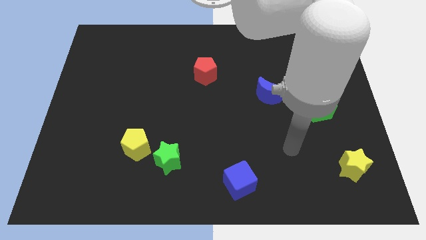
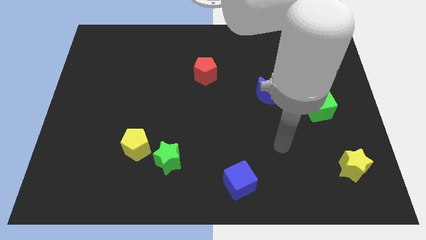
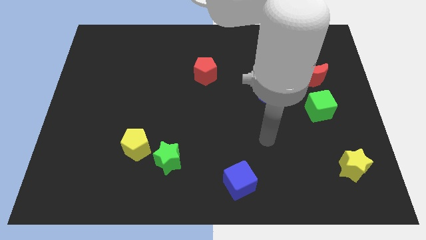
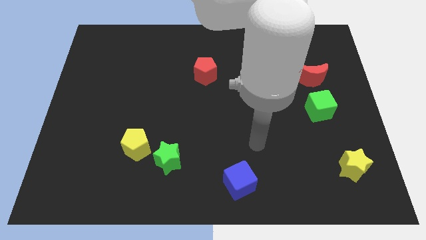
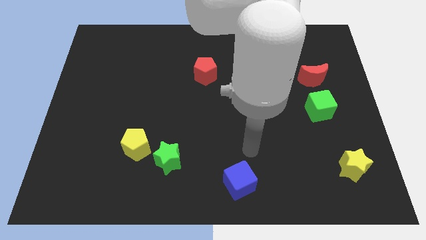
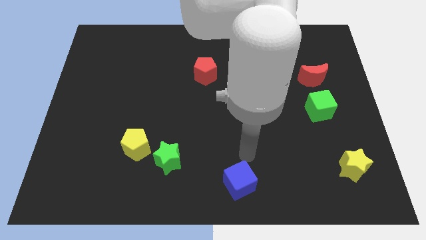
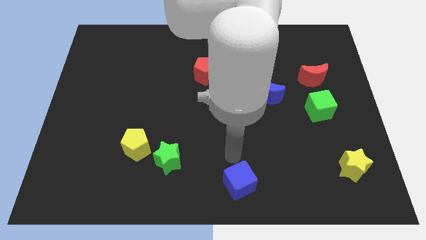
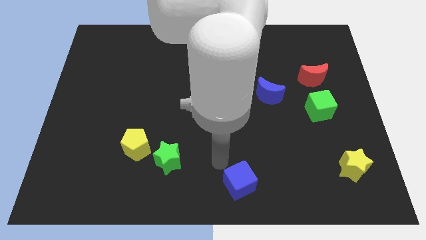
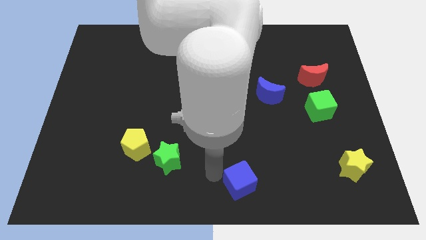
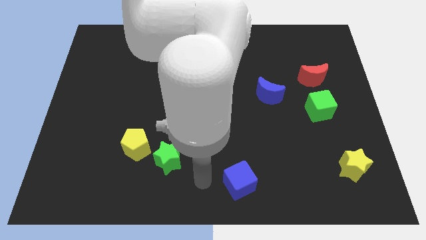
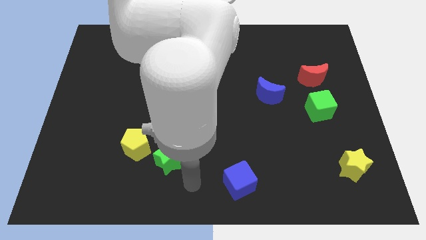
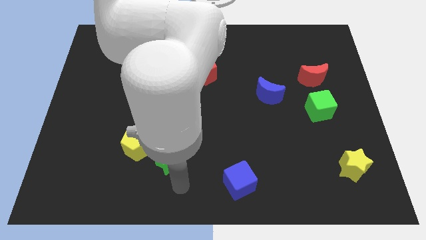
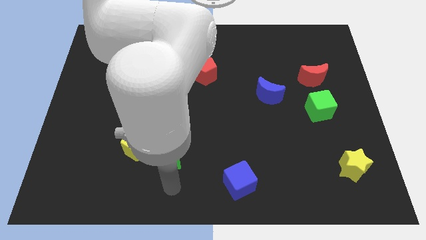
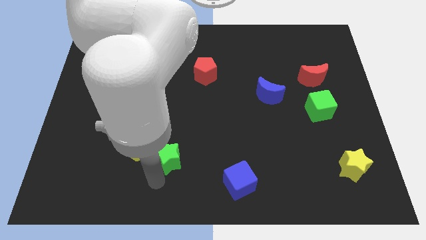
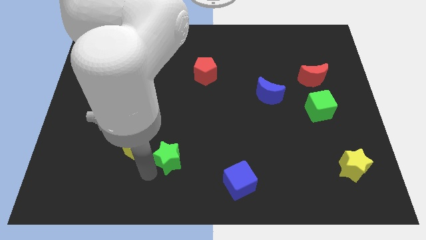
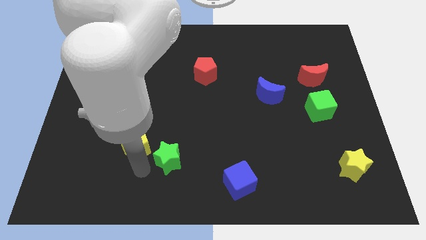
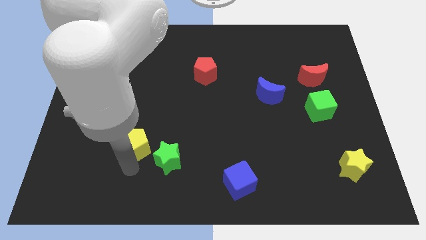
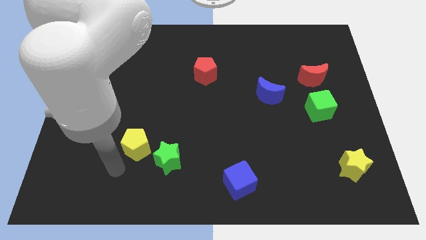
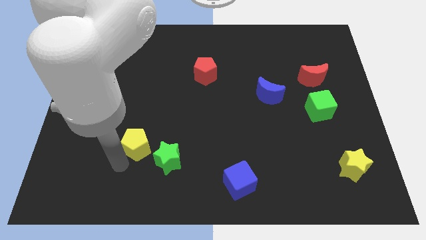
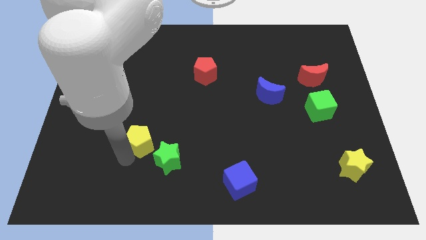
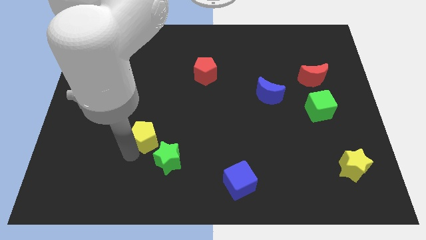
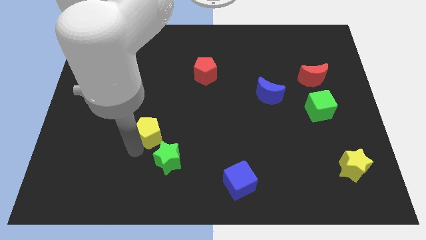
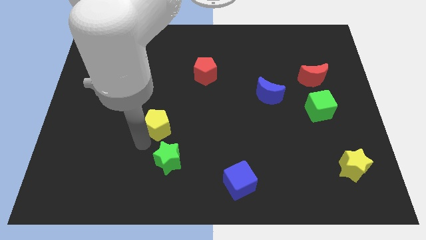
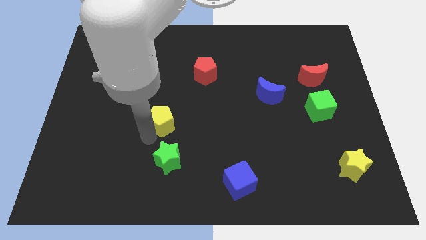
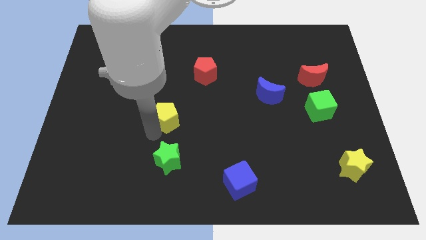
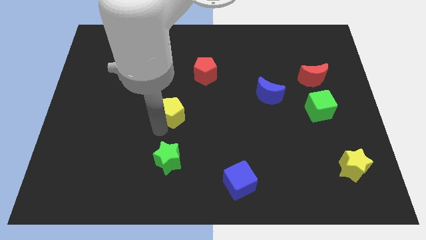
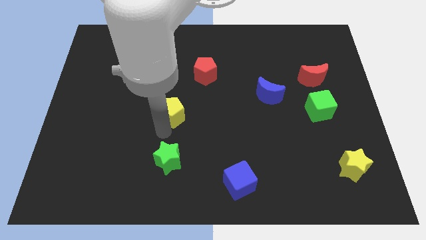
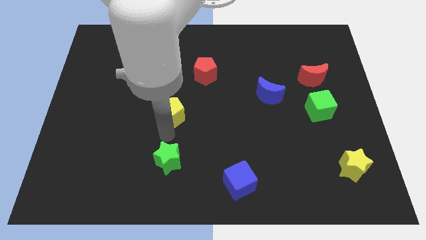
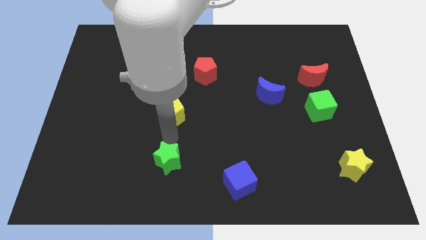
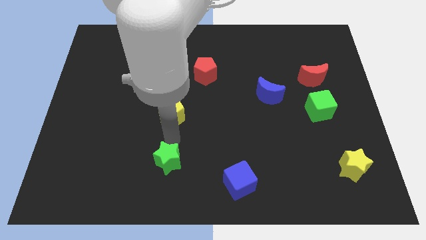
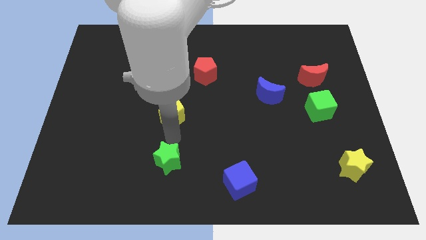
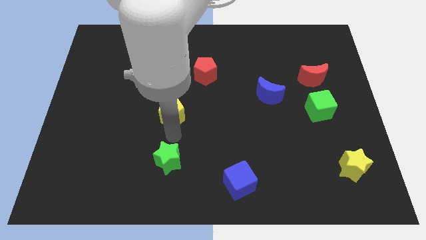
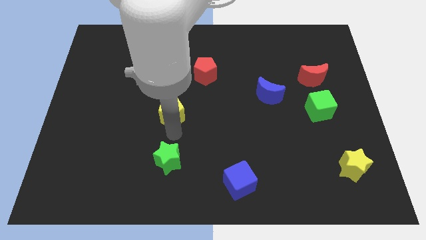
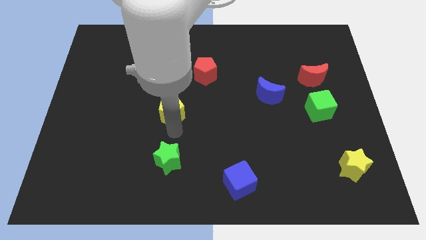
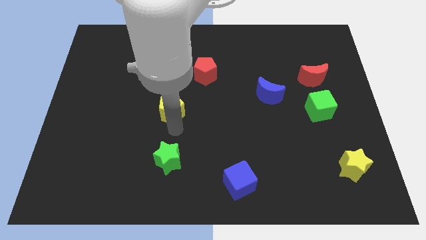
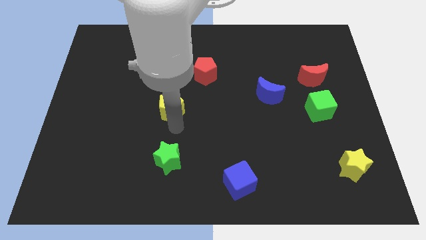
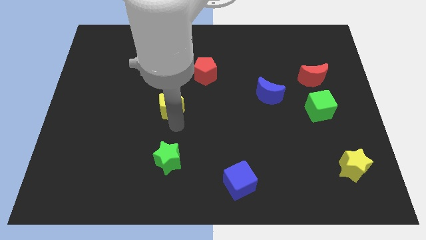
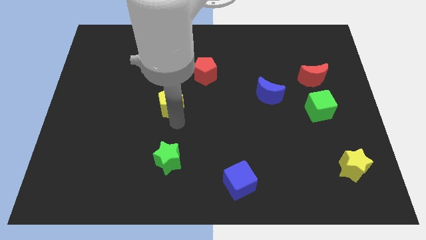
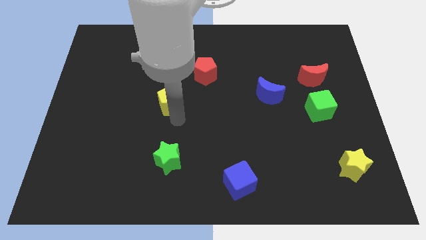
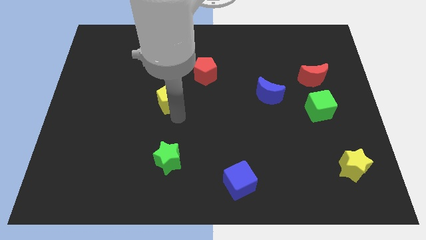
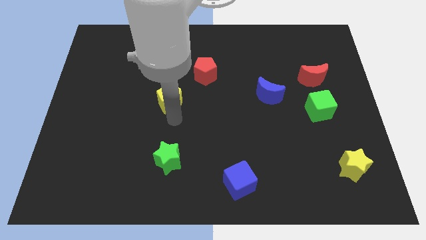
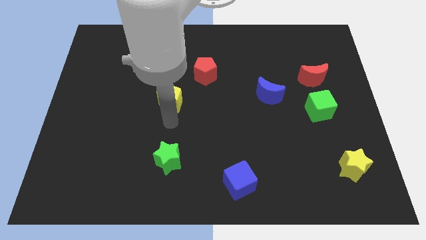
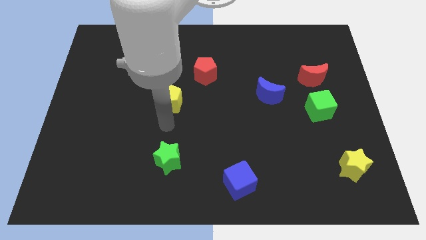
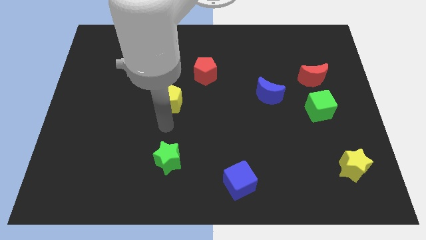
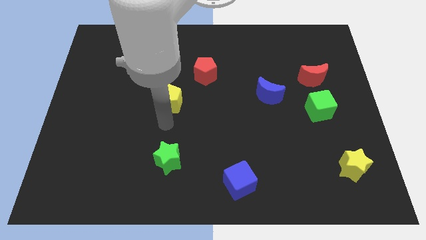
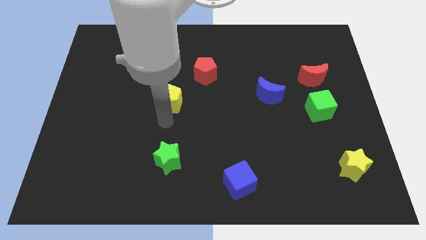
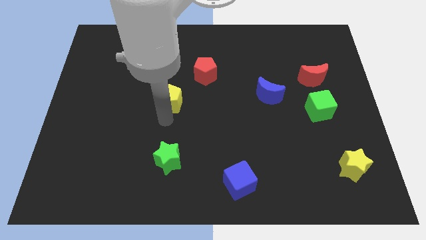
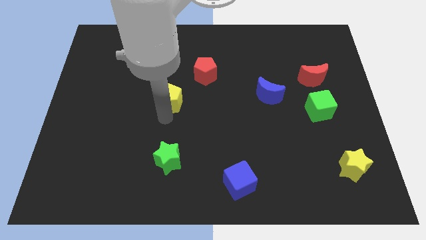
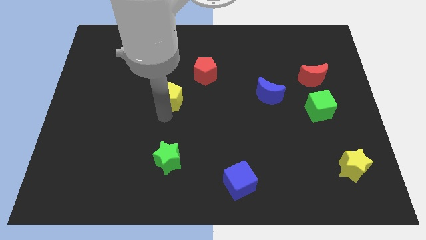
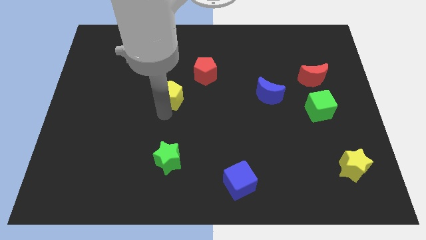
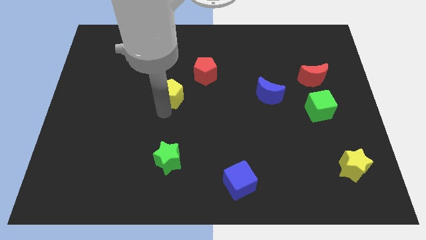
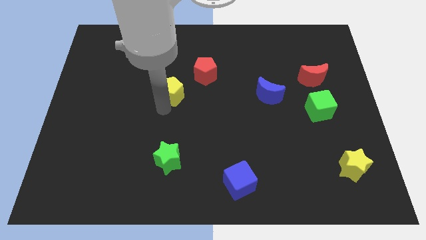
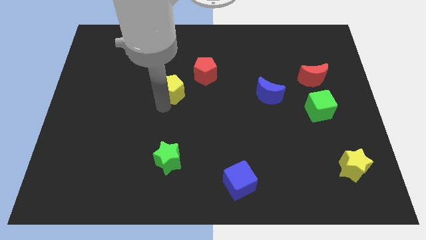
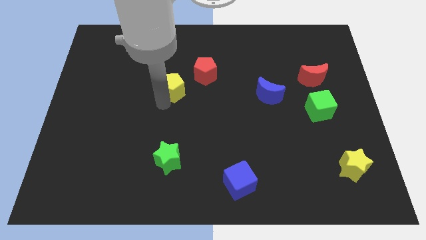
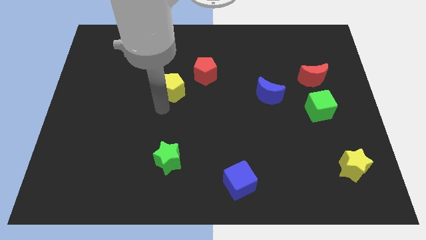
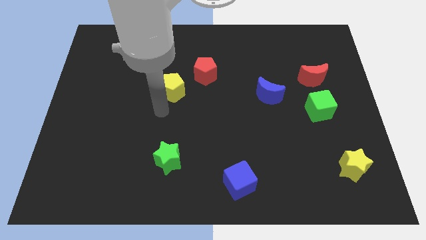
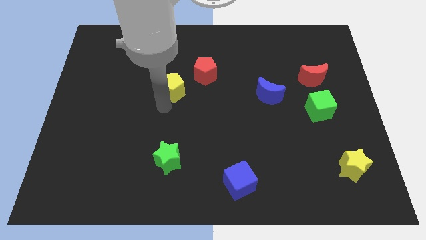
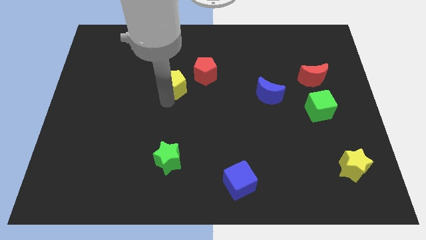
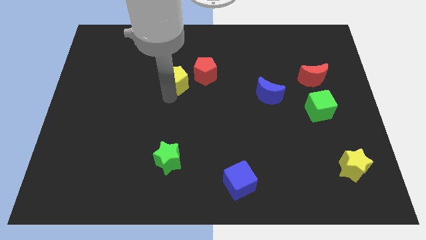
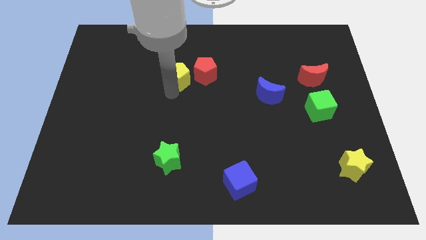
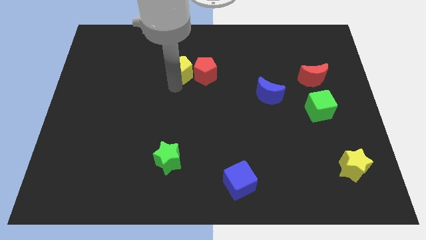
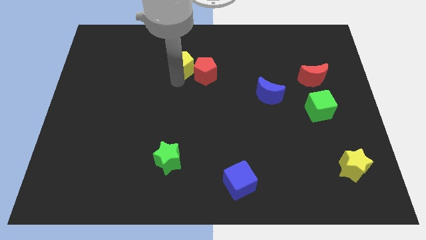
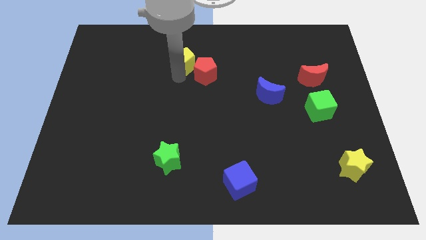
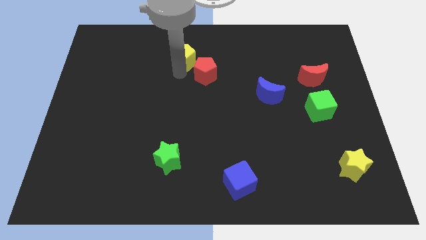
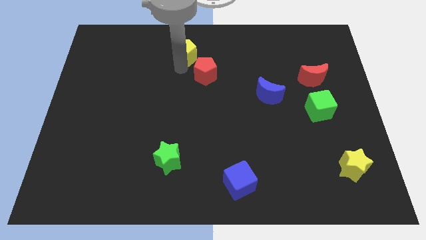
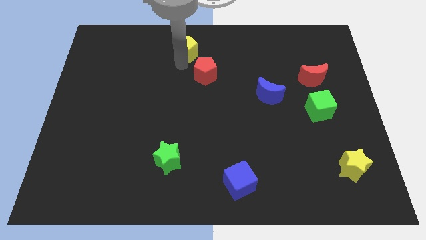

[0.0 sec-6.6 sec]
move the yellow pentagon to the top
